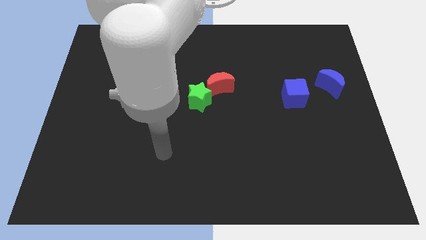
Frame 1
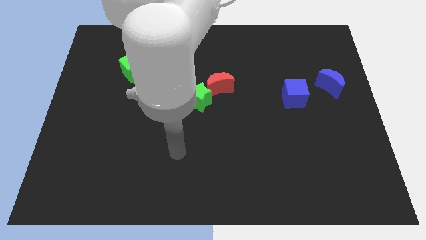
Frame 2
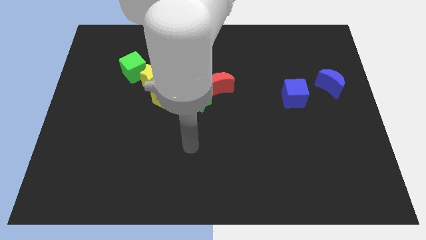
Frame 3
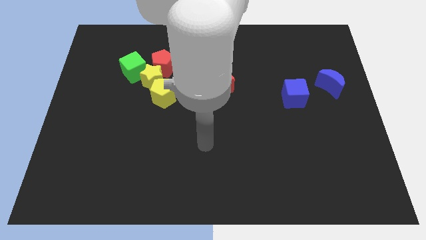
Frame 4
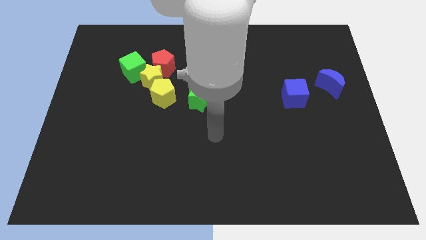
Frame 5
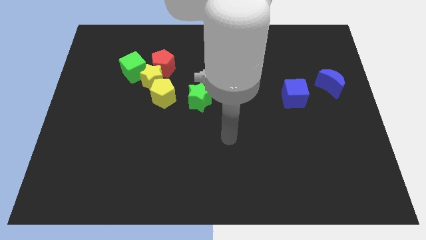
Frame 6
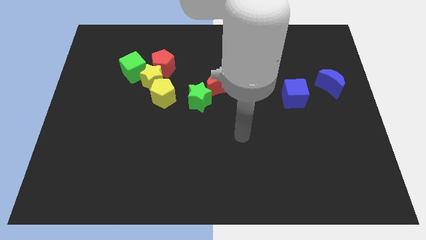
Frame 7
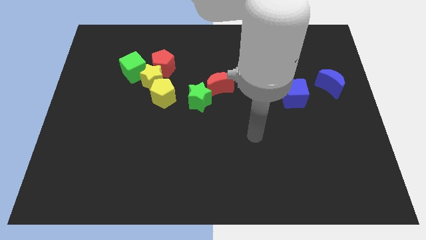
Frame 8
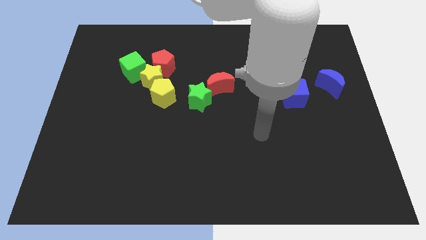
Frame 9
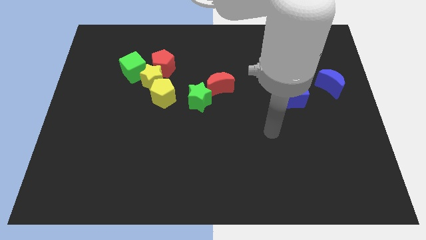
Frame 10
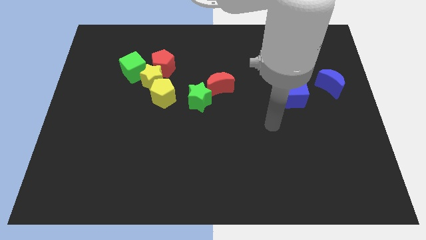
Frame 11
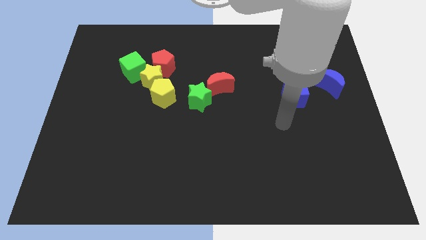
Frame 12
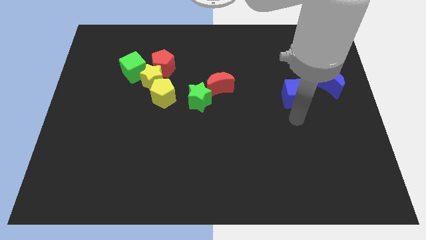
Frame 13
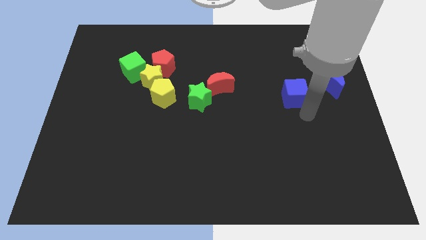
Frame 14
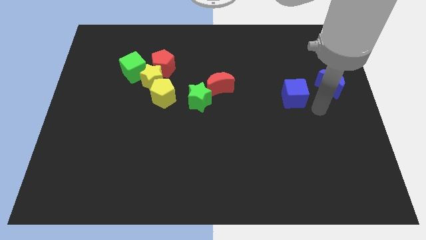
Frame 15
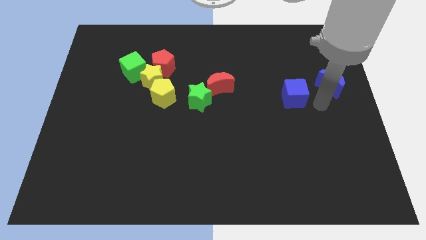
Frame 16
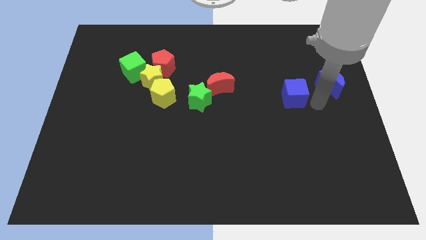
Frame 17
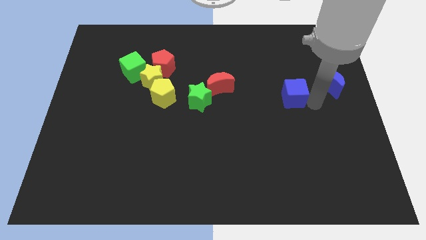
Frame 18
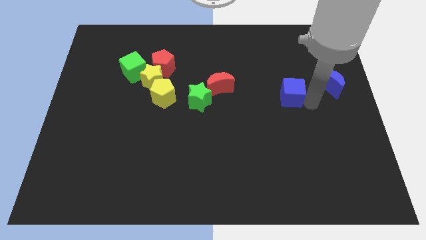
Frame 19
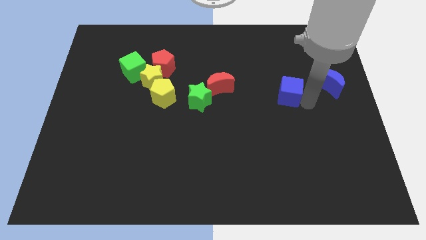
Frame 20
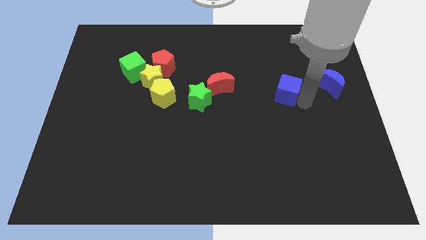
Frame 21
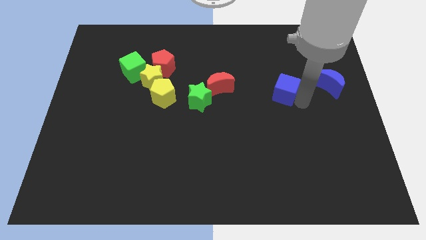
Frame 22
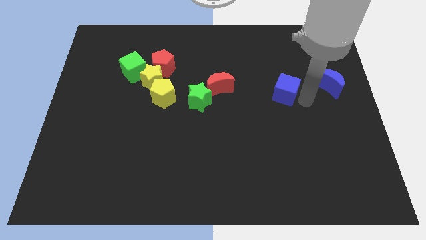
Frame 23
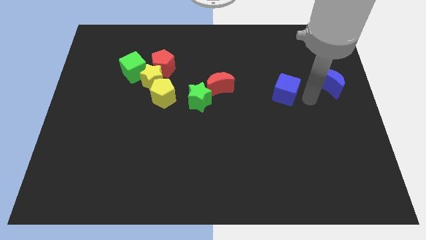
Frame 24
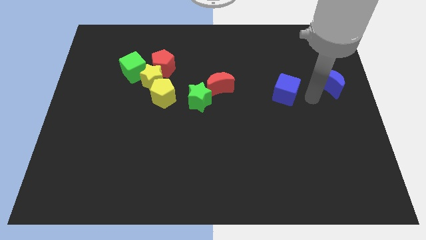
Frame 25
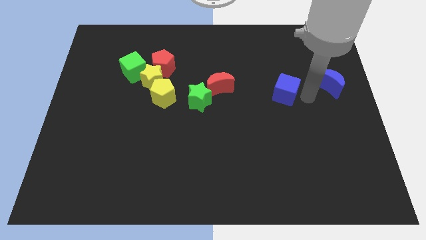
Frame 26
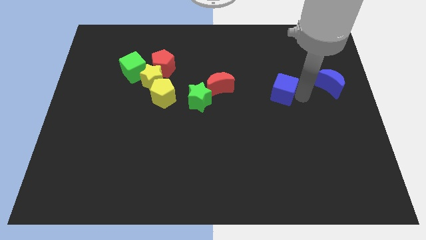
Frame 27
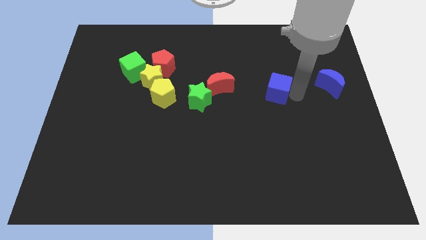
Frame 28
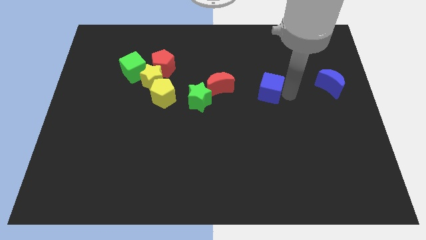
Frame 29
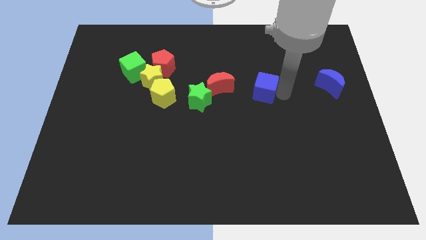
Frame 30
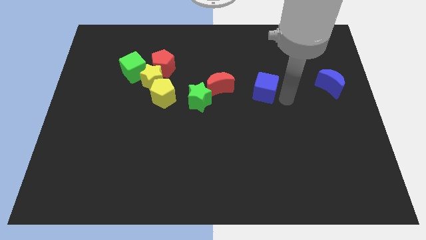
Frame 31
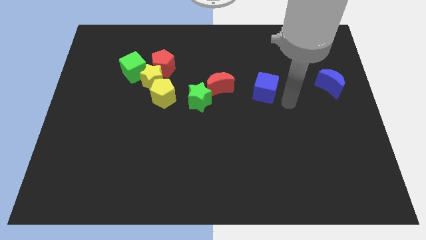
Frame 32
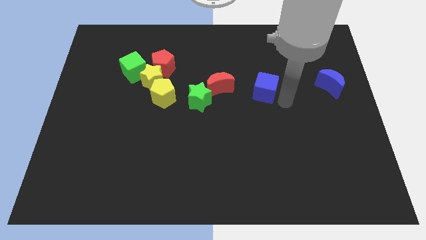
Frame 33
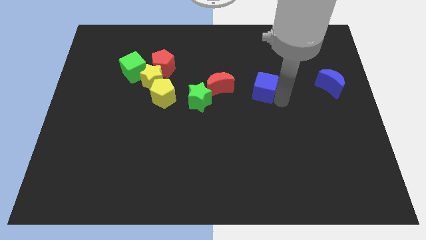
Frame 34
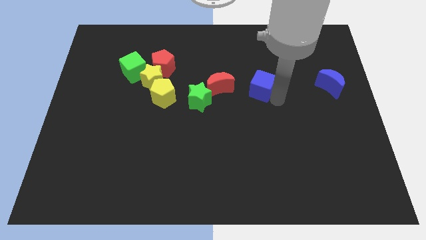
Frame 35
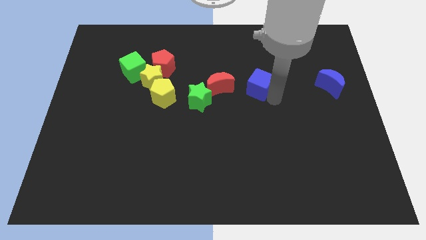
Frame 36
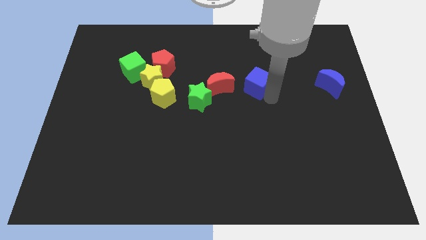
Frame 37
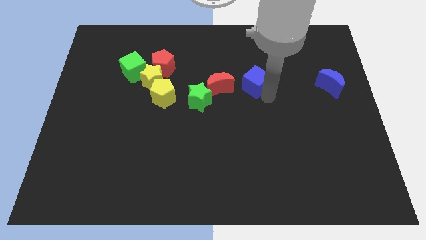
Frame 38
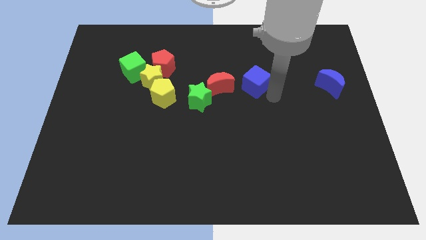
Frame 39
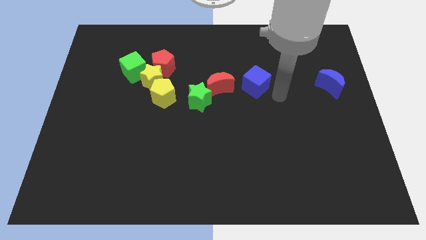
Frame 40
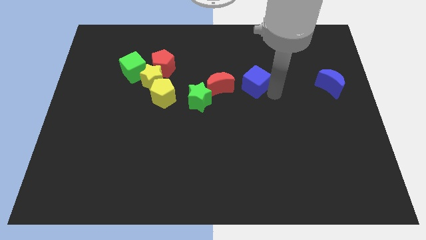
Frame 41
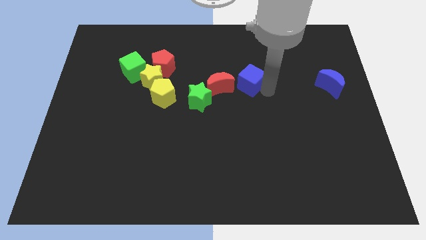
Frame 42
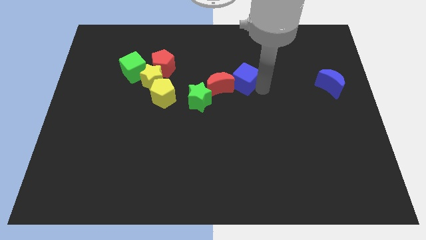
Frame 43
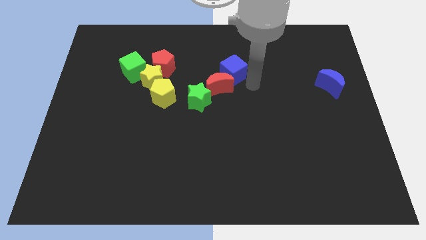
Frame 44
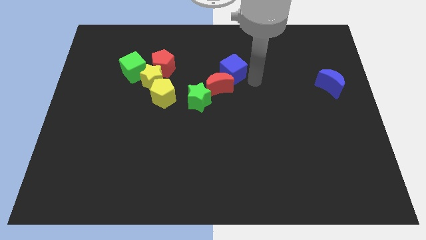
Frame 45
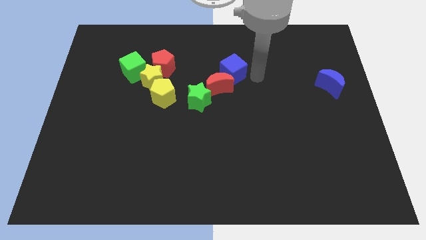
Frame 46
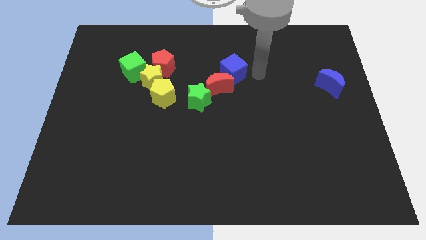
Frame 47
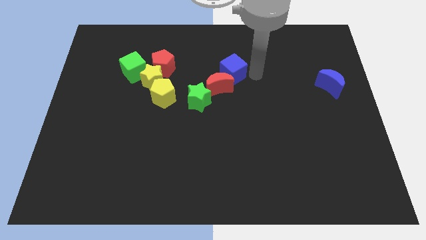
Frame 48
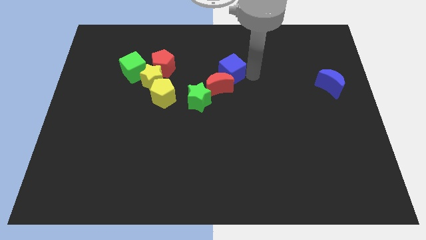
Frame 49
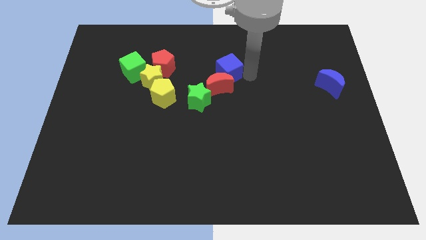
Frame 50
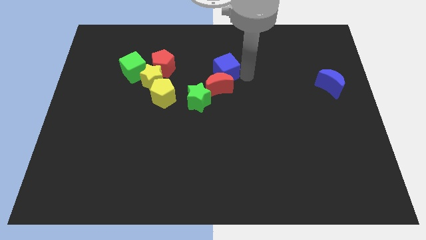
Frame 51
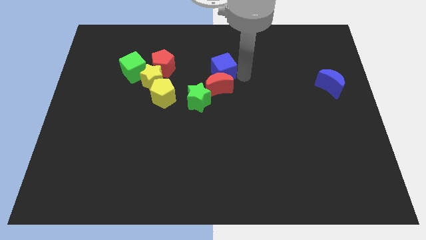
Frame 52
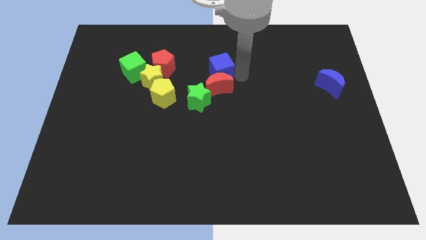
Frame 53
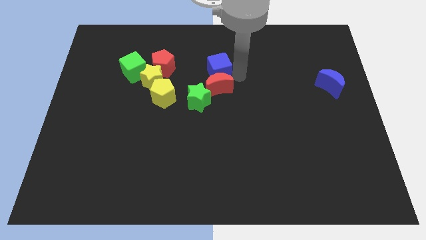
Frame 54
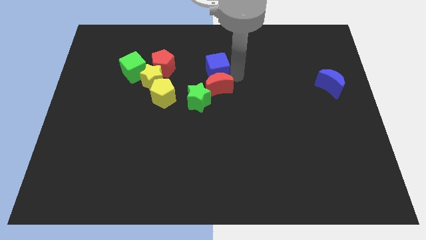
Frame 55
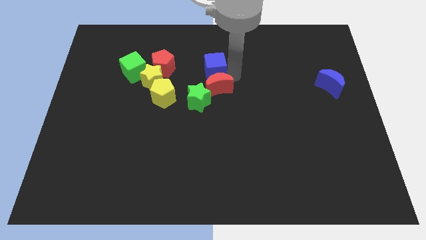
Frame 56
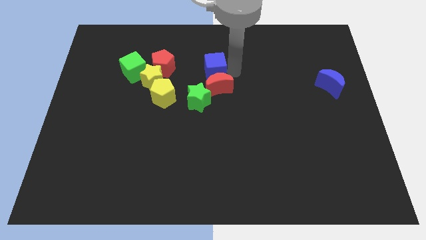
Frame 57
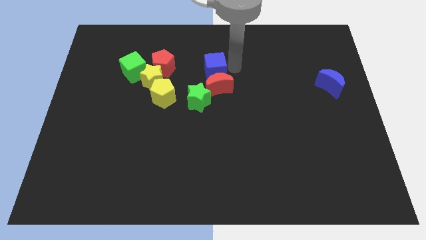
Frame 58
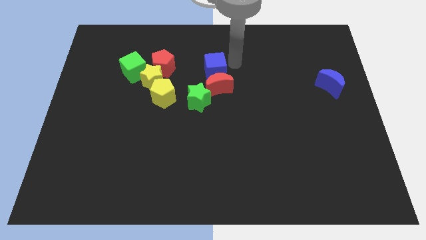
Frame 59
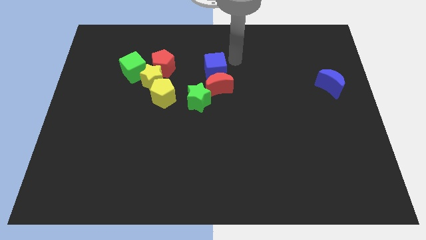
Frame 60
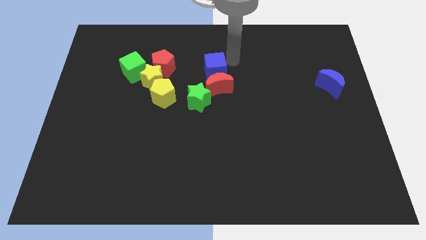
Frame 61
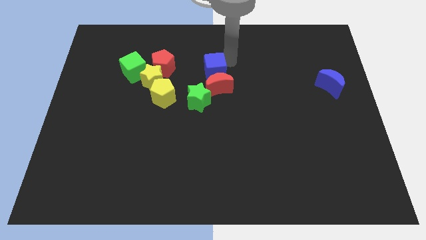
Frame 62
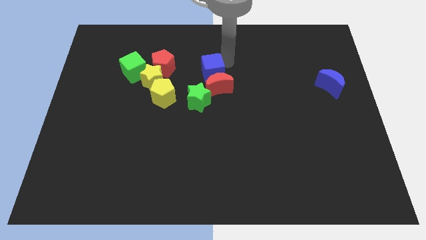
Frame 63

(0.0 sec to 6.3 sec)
move the blue cube just right of the yellow star

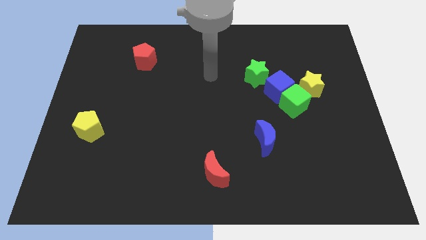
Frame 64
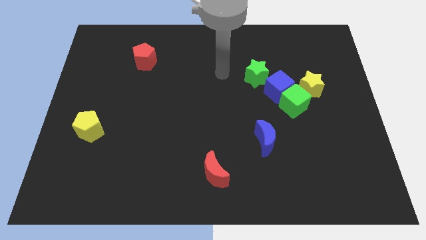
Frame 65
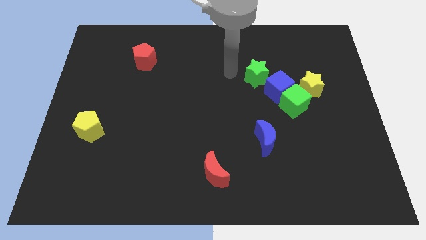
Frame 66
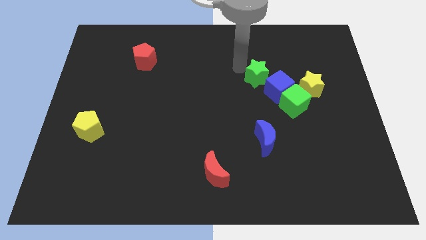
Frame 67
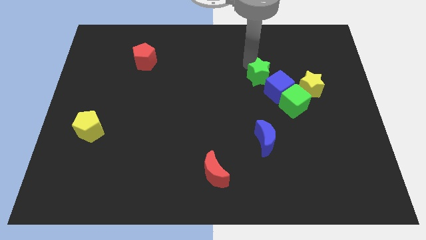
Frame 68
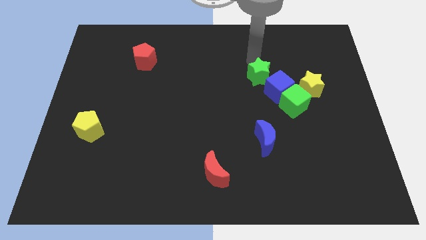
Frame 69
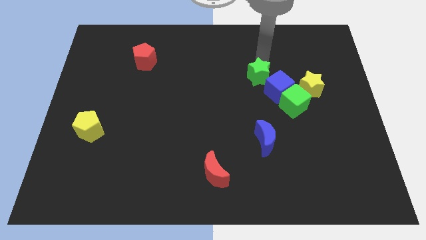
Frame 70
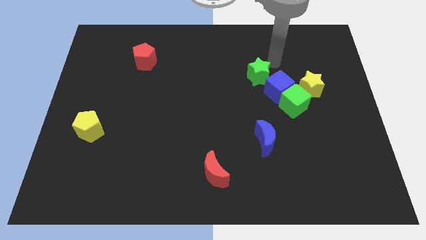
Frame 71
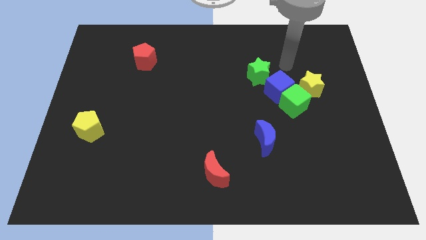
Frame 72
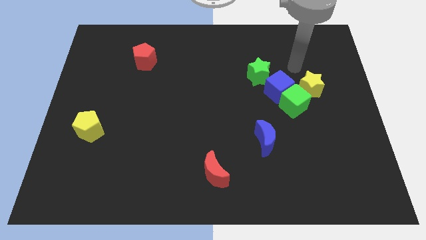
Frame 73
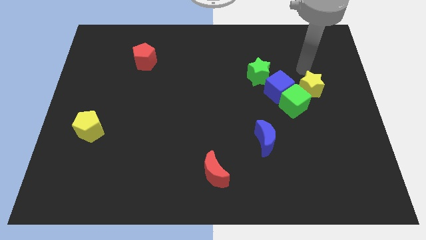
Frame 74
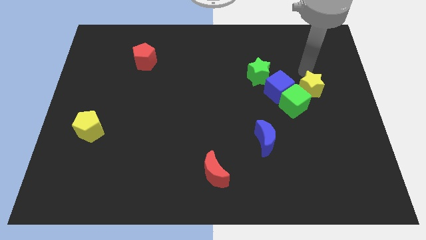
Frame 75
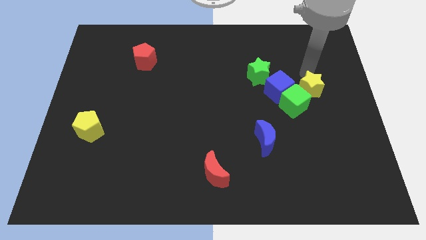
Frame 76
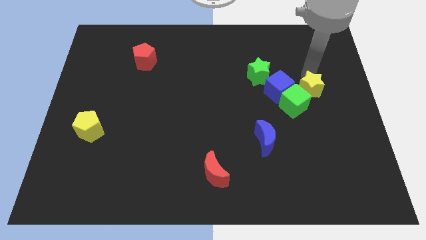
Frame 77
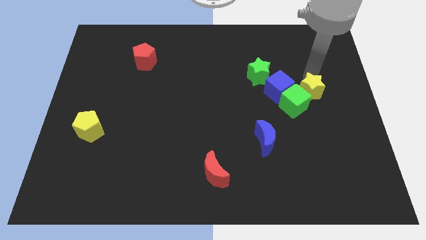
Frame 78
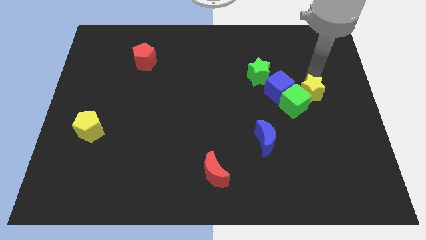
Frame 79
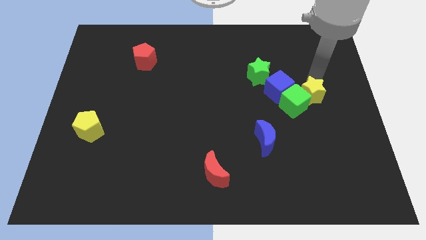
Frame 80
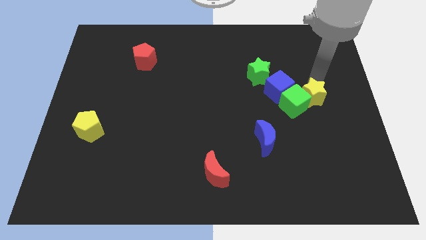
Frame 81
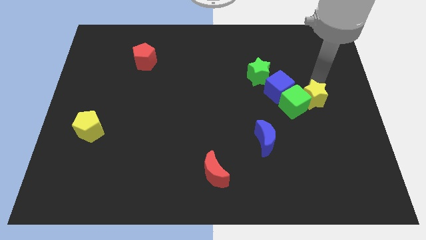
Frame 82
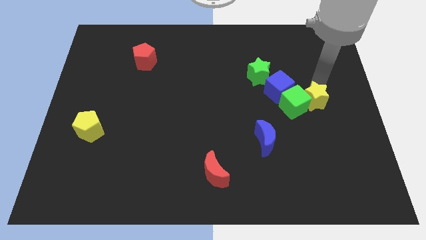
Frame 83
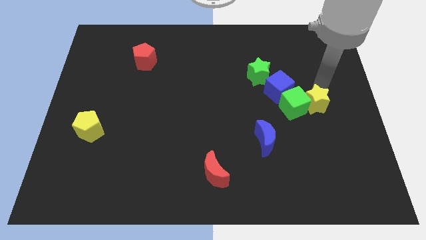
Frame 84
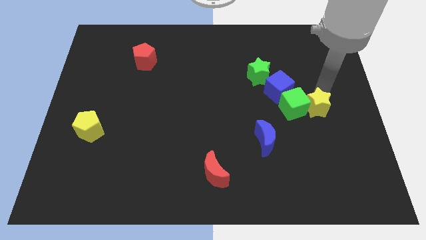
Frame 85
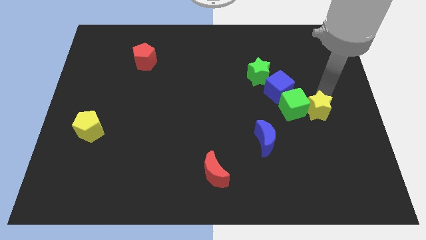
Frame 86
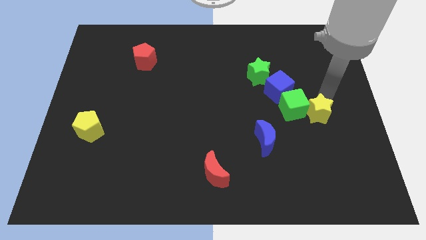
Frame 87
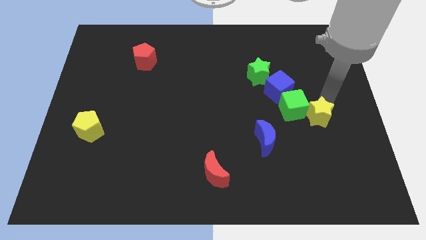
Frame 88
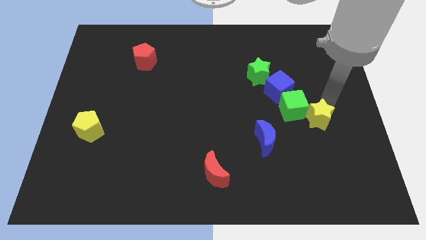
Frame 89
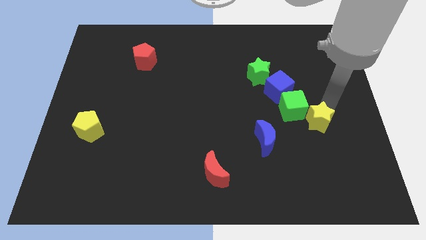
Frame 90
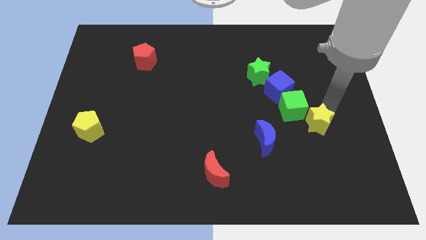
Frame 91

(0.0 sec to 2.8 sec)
push the yellow star to the right of the blue moon
